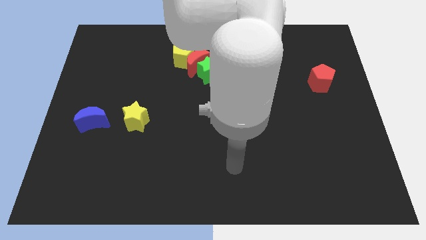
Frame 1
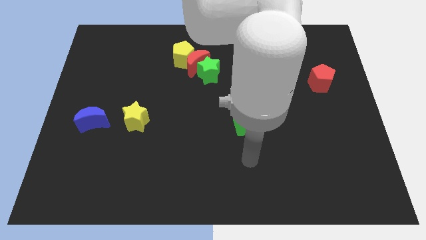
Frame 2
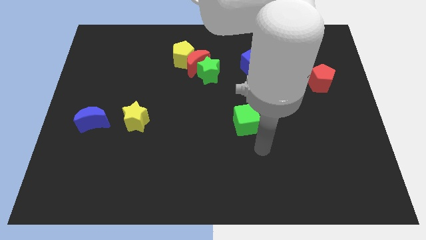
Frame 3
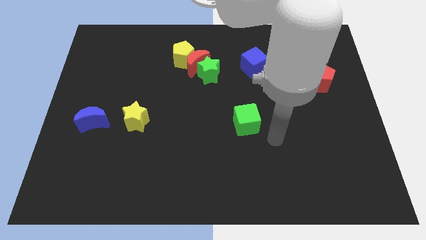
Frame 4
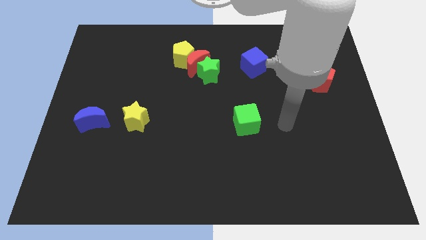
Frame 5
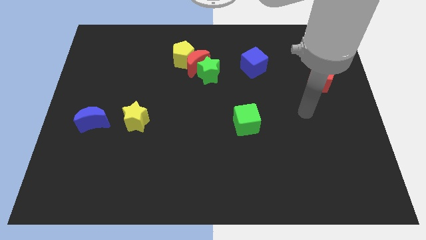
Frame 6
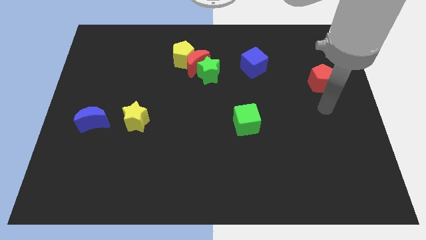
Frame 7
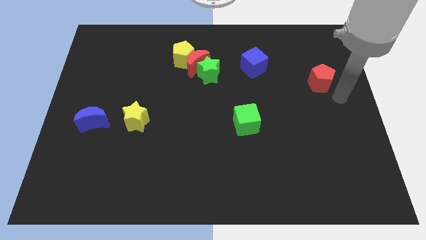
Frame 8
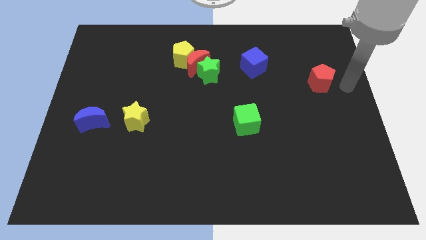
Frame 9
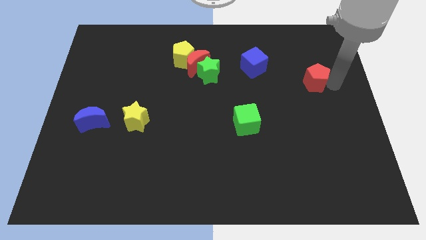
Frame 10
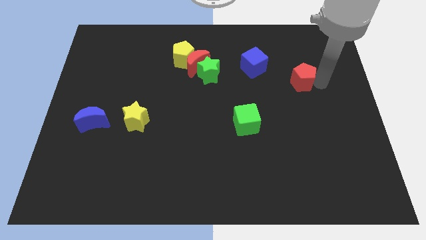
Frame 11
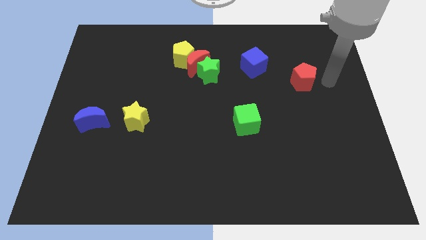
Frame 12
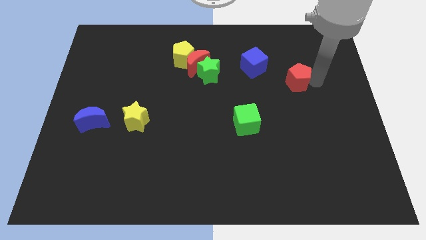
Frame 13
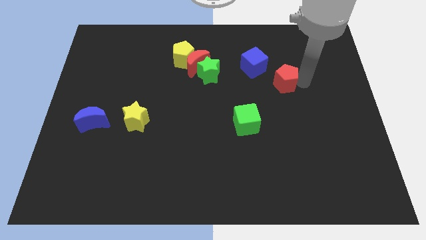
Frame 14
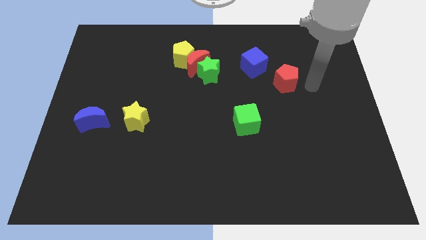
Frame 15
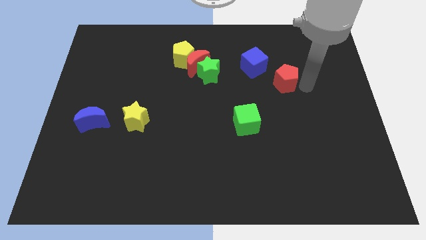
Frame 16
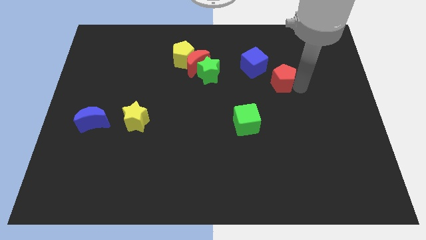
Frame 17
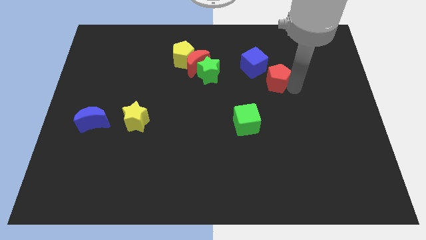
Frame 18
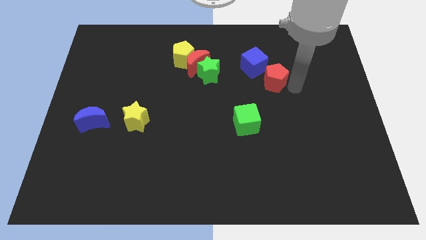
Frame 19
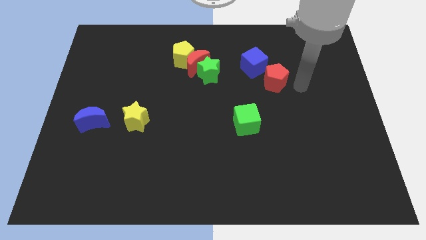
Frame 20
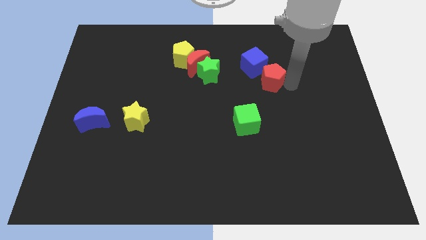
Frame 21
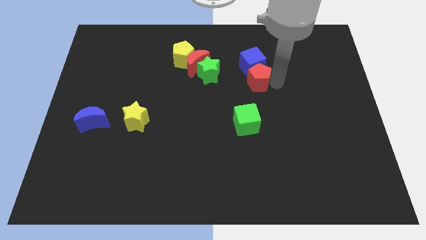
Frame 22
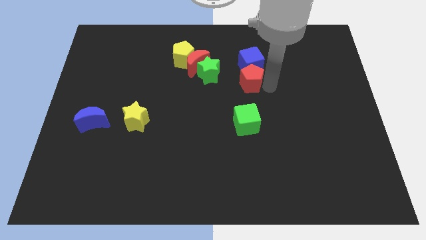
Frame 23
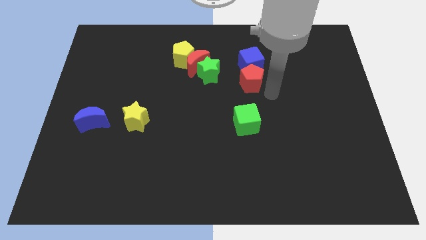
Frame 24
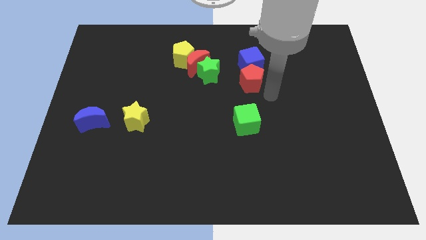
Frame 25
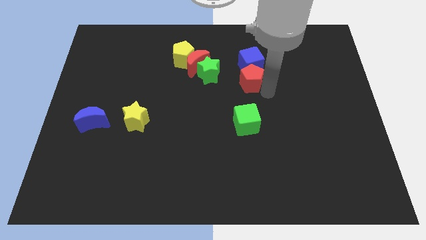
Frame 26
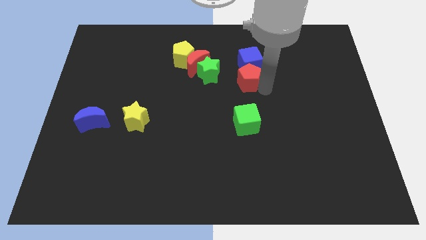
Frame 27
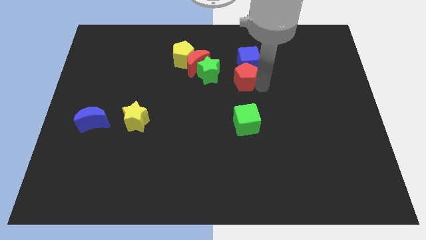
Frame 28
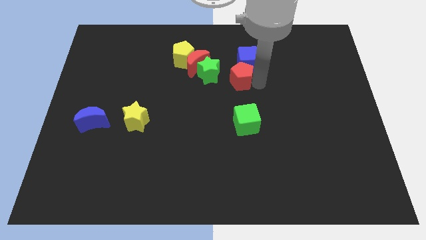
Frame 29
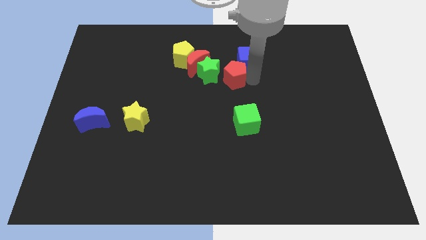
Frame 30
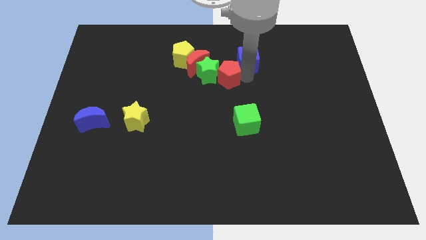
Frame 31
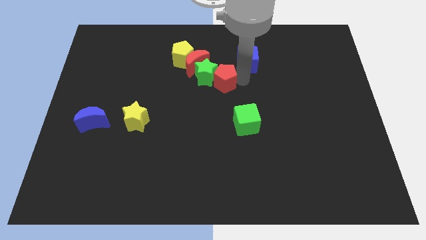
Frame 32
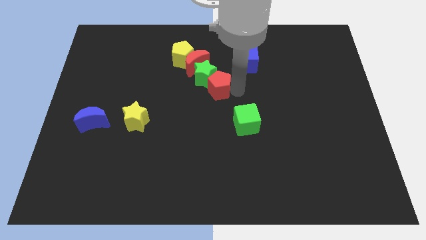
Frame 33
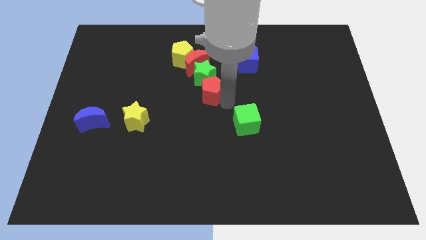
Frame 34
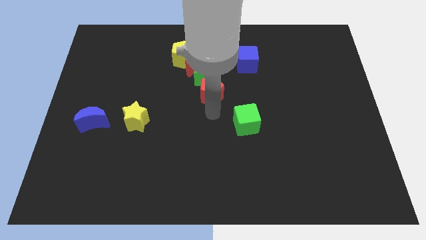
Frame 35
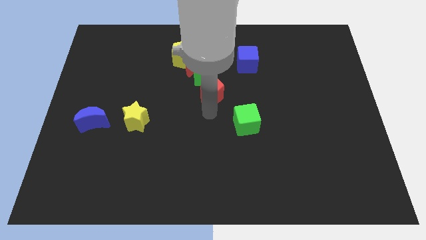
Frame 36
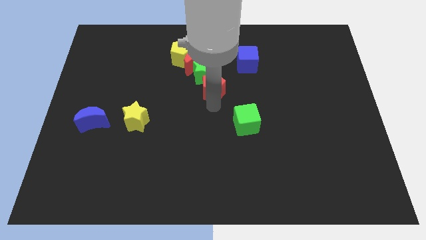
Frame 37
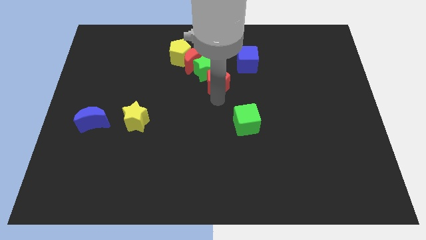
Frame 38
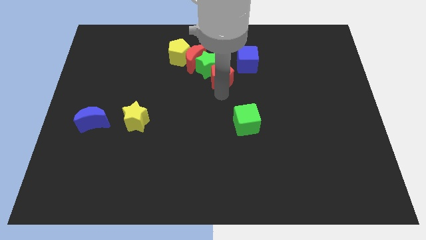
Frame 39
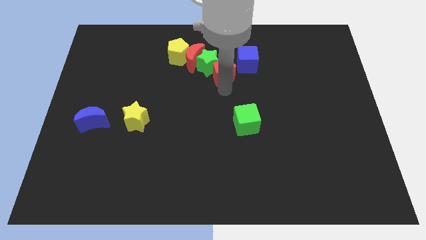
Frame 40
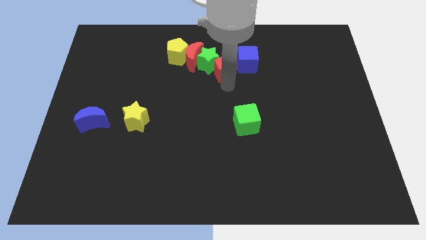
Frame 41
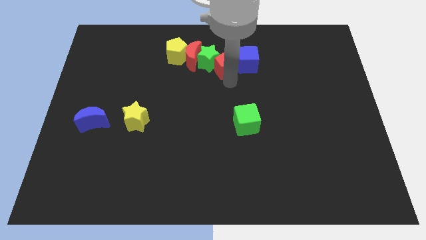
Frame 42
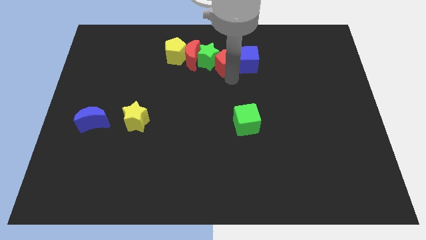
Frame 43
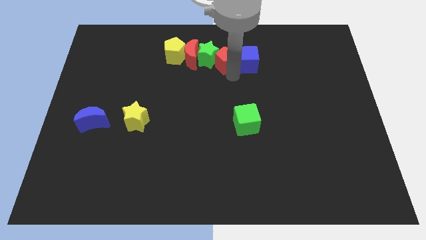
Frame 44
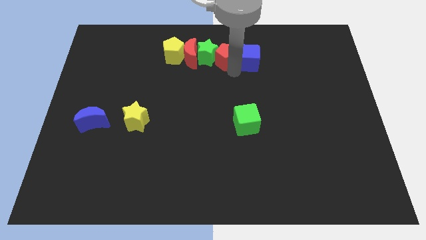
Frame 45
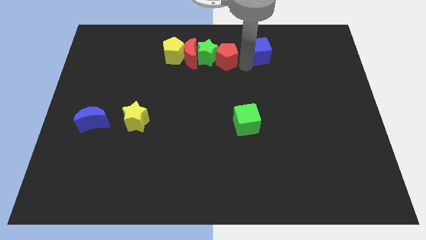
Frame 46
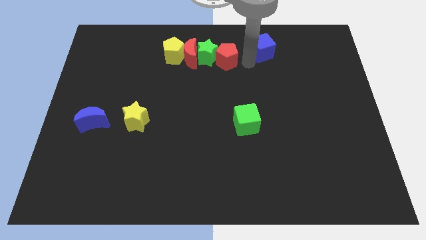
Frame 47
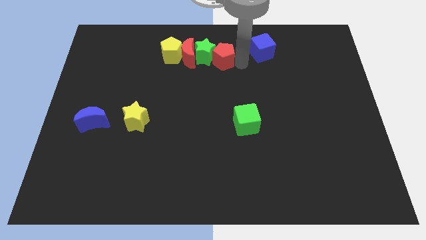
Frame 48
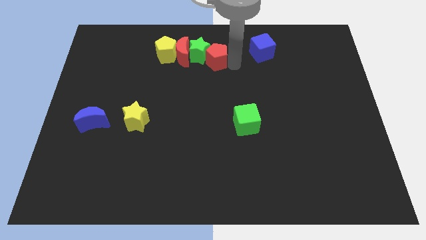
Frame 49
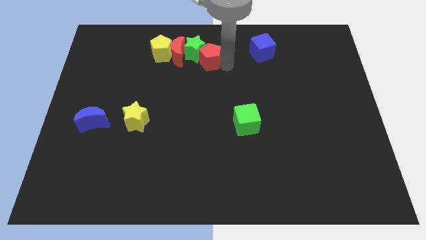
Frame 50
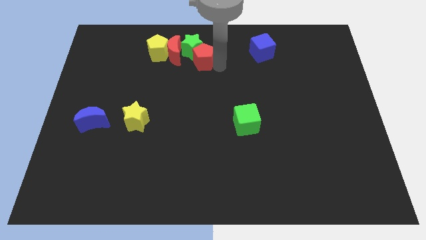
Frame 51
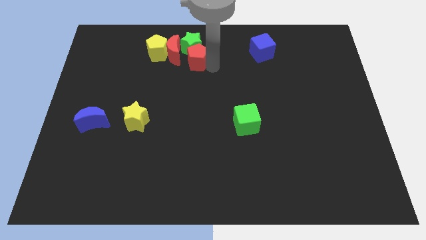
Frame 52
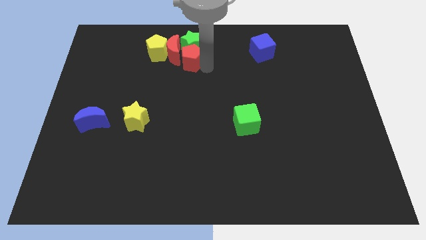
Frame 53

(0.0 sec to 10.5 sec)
put the red pentagon towards the red moon

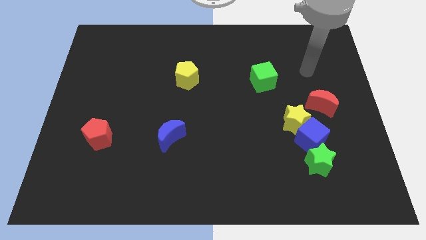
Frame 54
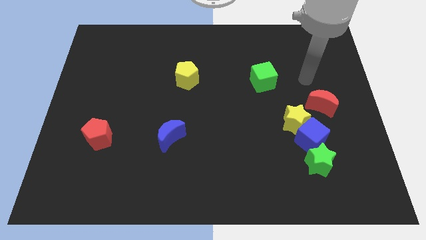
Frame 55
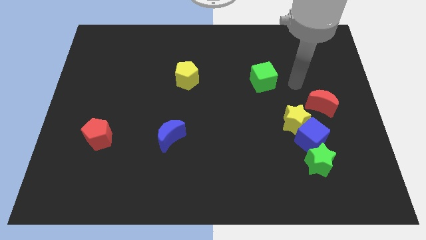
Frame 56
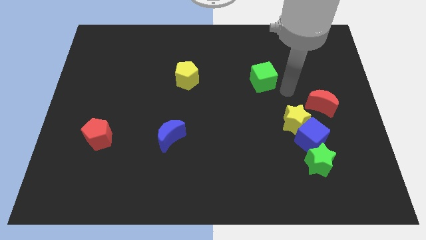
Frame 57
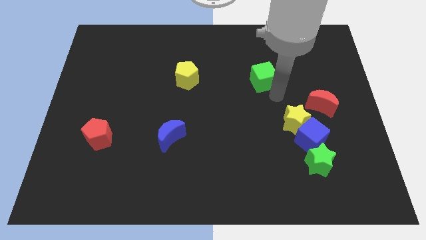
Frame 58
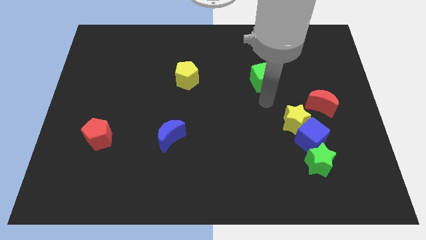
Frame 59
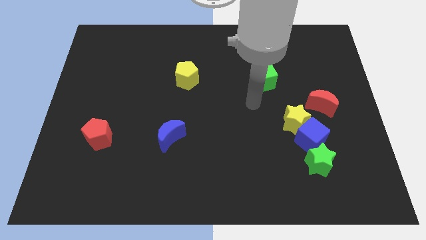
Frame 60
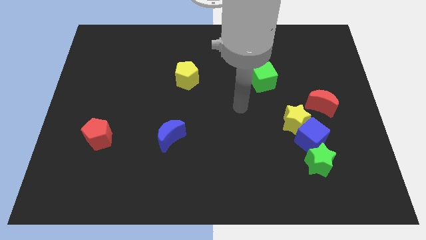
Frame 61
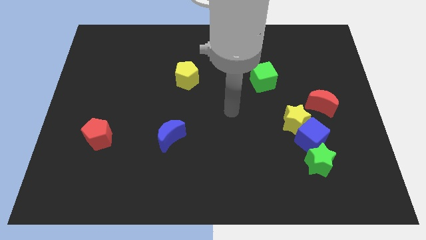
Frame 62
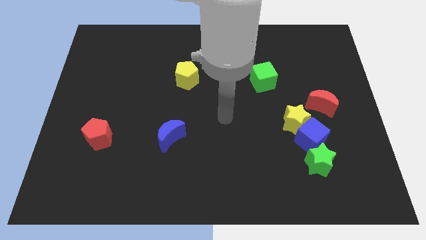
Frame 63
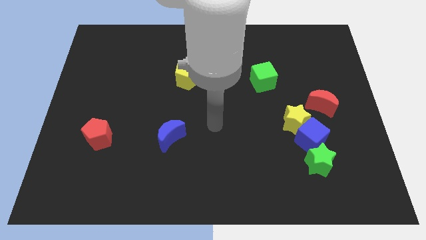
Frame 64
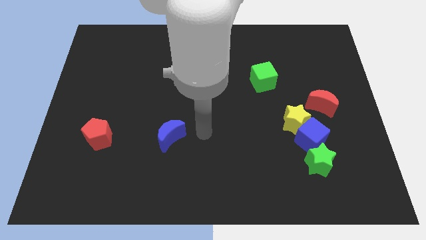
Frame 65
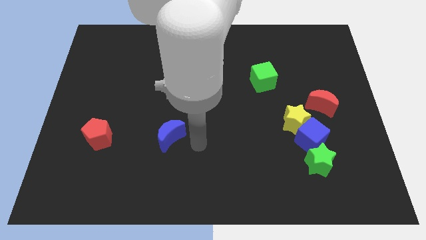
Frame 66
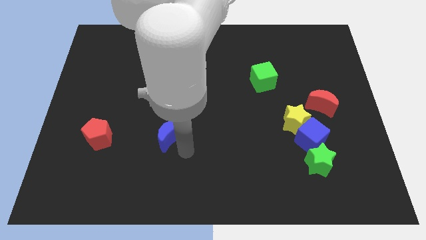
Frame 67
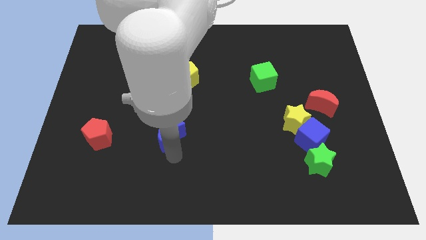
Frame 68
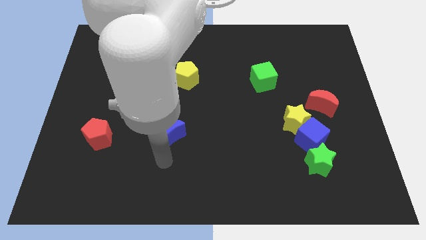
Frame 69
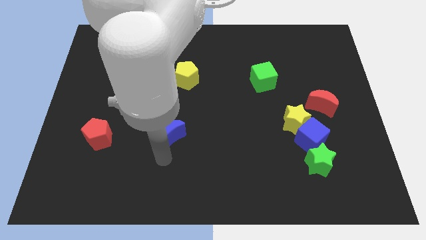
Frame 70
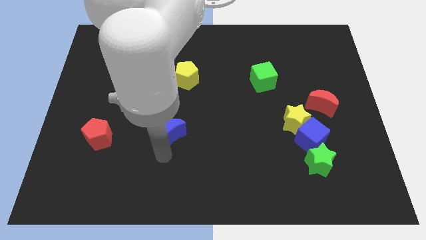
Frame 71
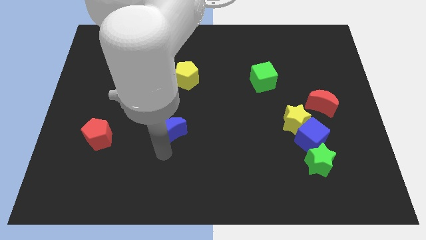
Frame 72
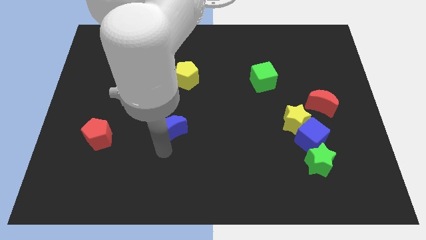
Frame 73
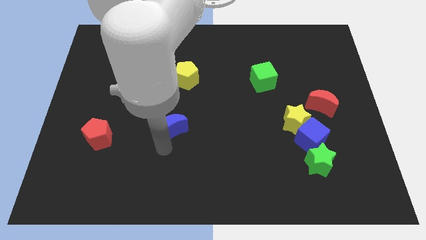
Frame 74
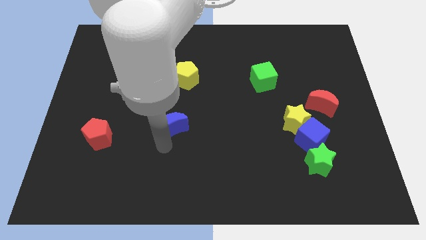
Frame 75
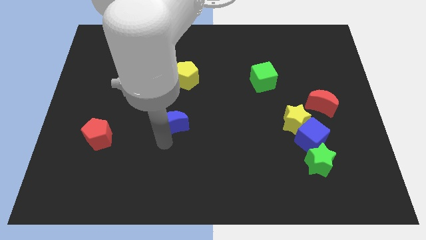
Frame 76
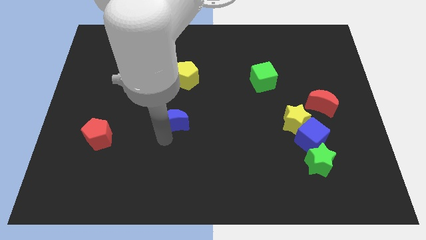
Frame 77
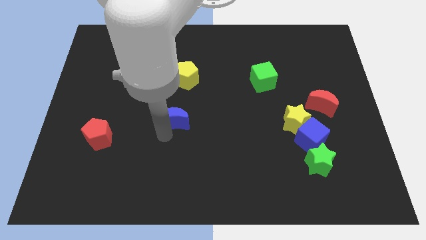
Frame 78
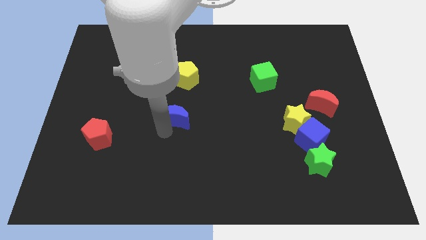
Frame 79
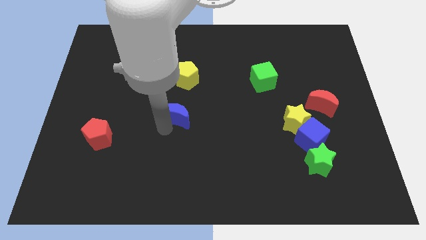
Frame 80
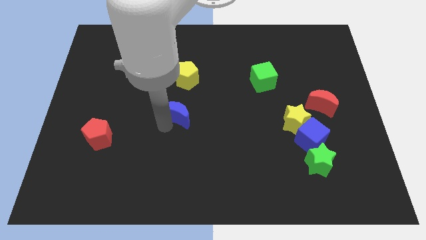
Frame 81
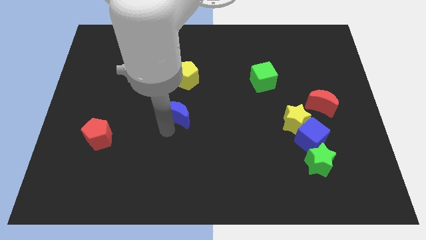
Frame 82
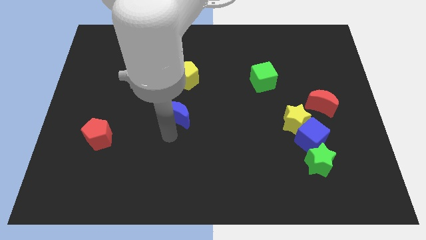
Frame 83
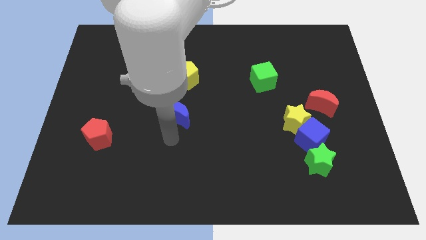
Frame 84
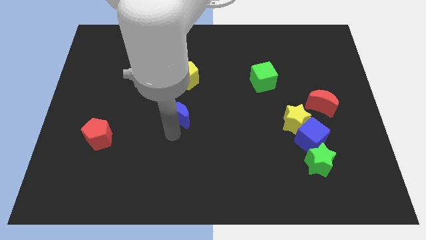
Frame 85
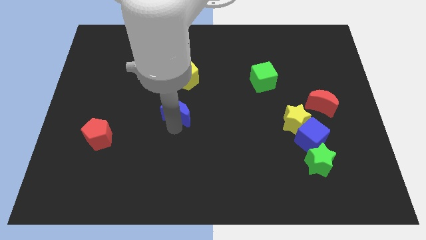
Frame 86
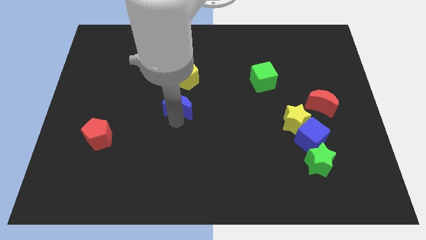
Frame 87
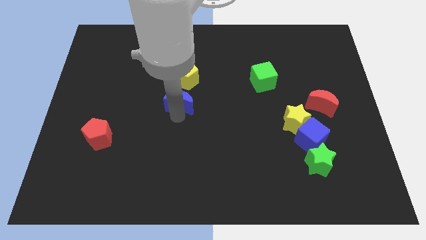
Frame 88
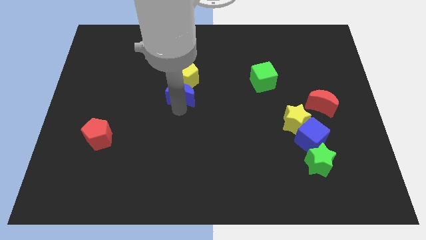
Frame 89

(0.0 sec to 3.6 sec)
move the blue moon close to the yellow pentagon
